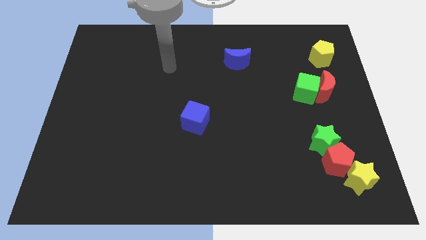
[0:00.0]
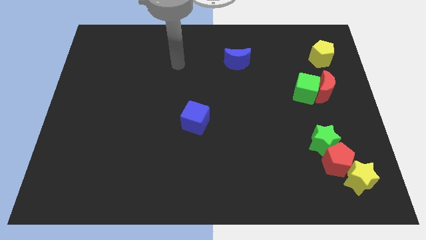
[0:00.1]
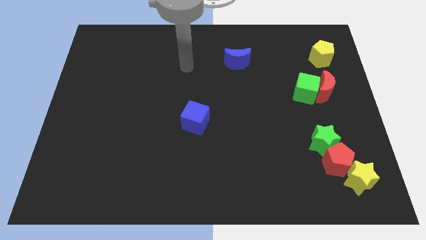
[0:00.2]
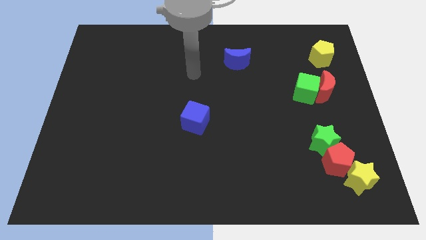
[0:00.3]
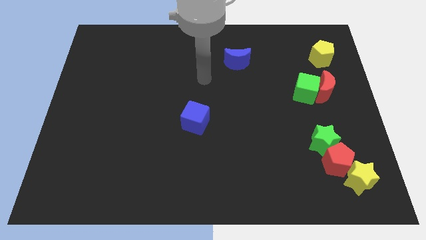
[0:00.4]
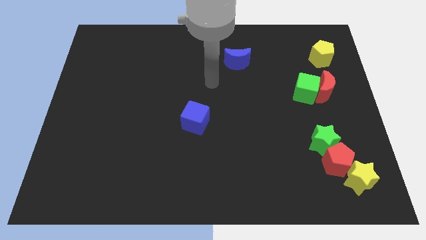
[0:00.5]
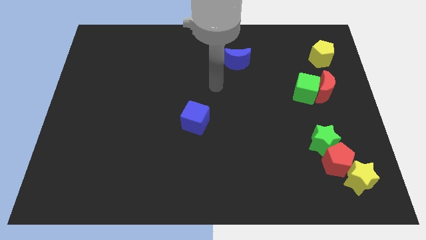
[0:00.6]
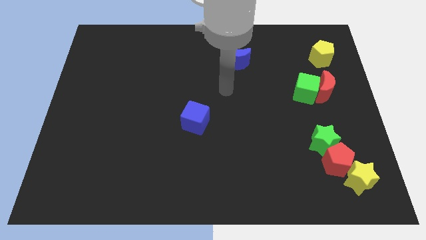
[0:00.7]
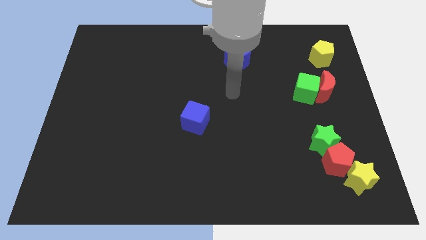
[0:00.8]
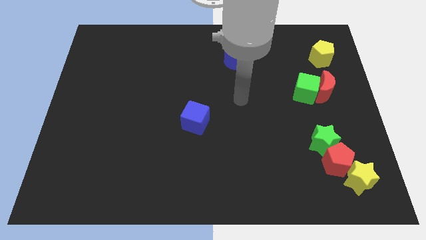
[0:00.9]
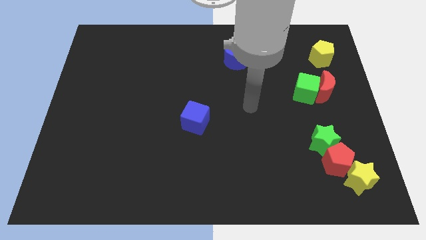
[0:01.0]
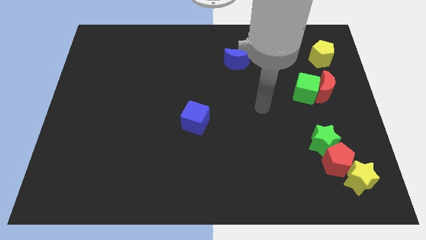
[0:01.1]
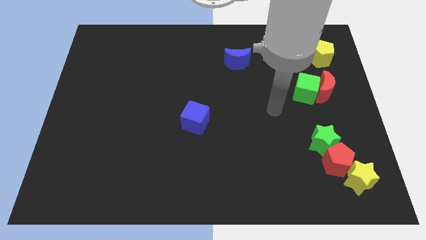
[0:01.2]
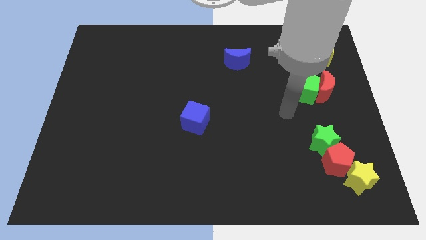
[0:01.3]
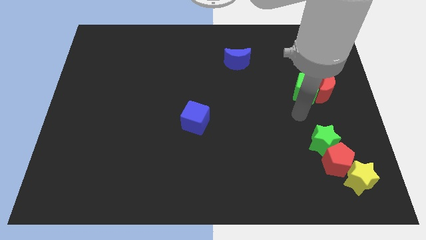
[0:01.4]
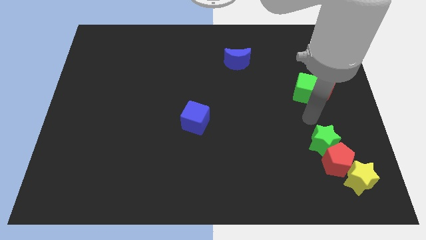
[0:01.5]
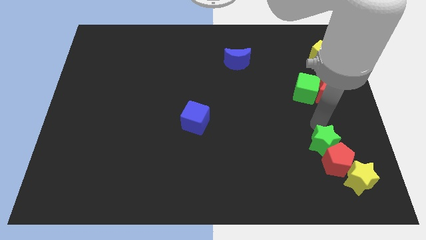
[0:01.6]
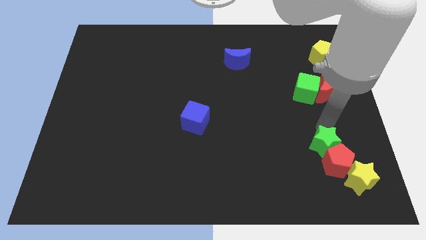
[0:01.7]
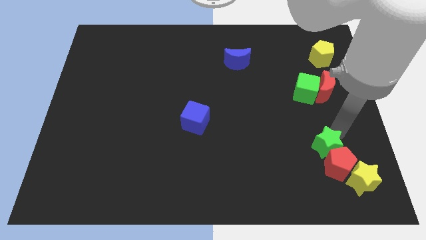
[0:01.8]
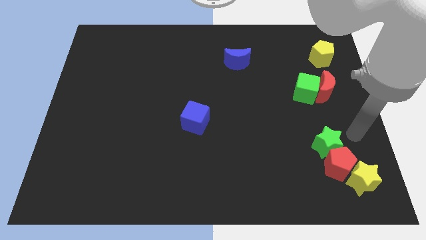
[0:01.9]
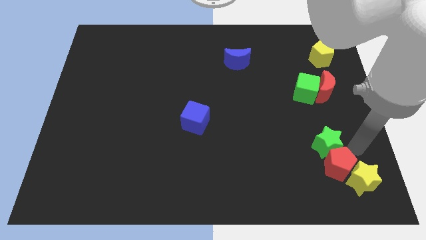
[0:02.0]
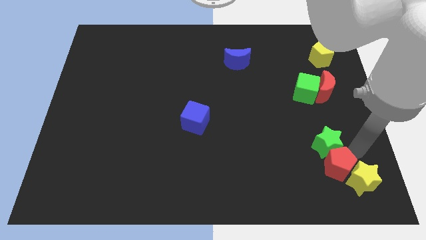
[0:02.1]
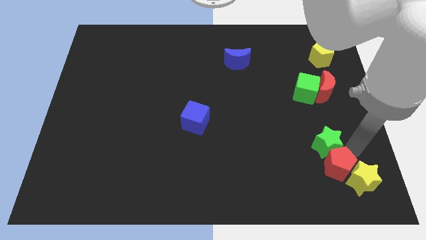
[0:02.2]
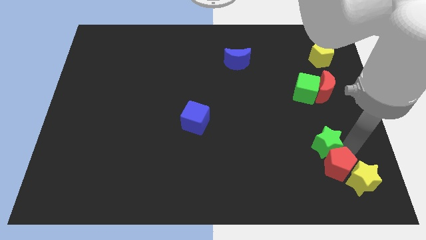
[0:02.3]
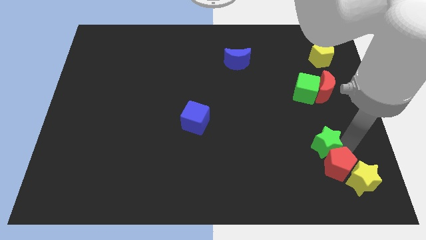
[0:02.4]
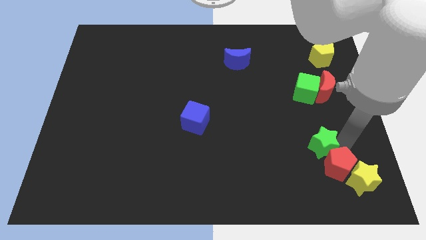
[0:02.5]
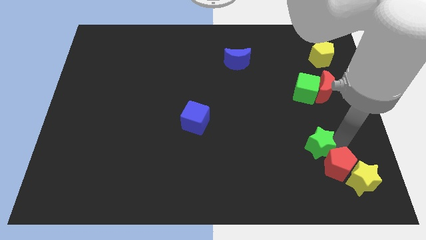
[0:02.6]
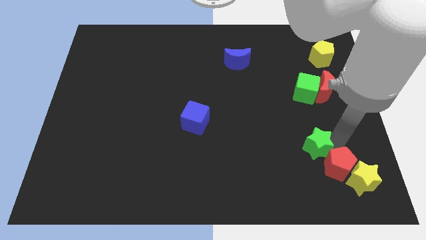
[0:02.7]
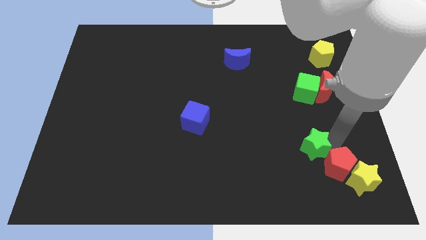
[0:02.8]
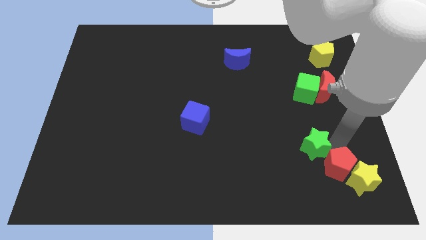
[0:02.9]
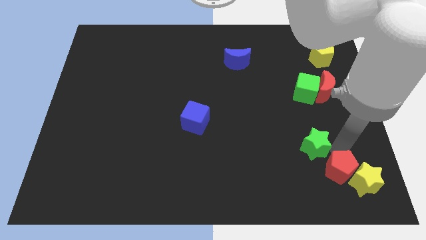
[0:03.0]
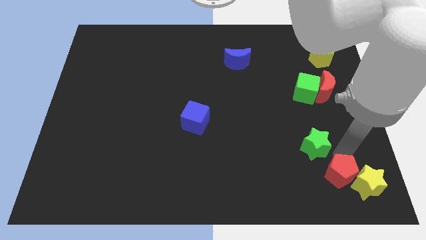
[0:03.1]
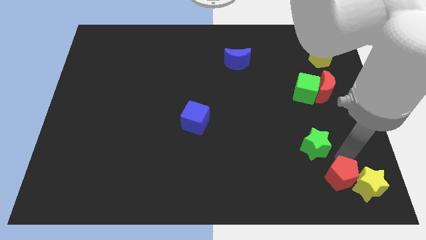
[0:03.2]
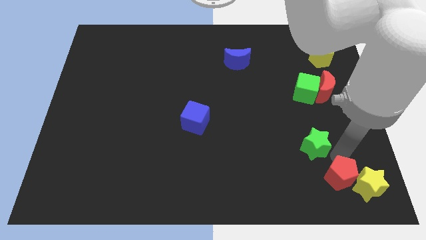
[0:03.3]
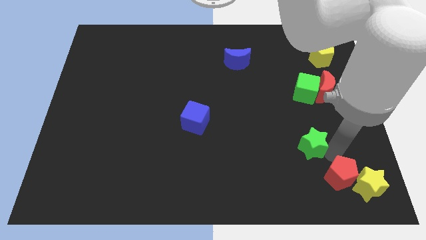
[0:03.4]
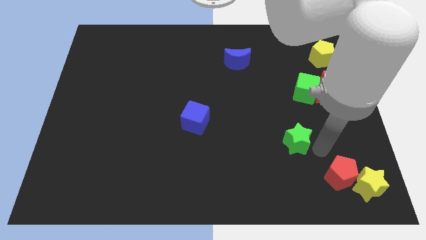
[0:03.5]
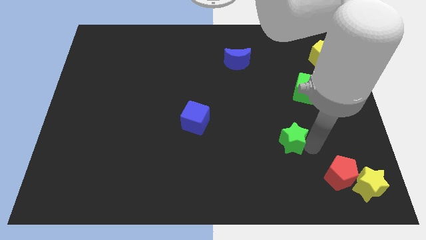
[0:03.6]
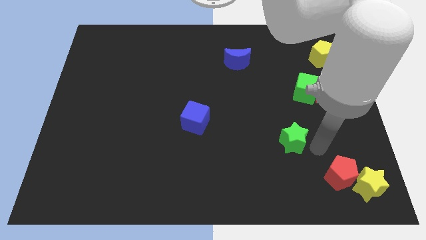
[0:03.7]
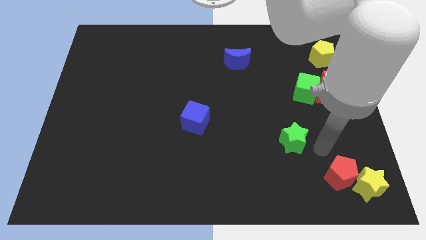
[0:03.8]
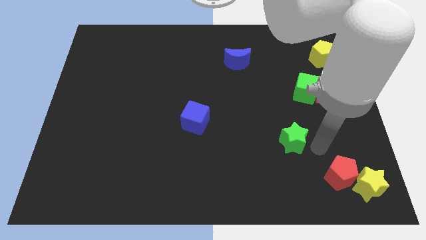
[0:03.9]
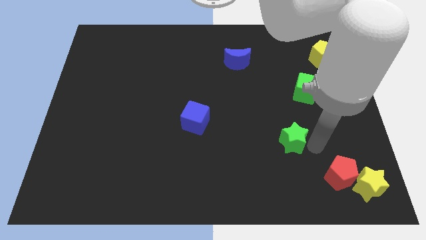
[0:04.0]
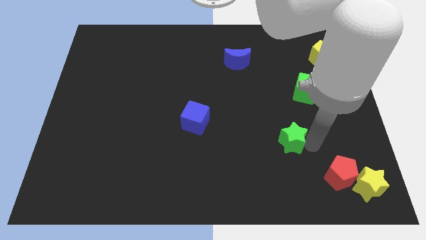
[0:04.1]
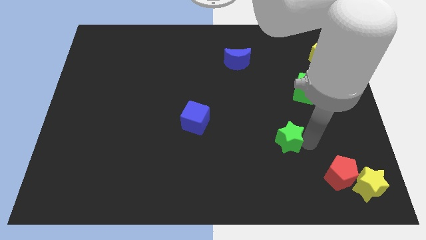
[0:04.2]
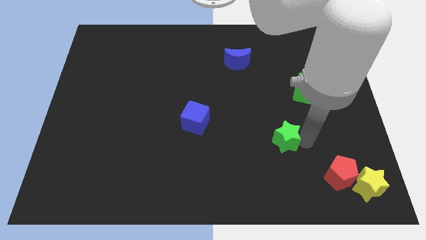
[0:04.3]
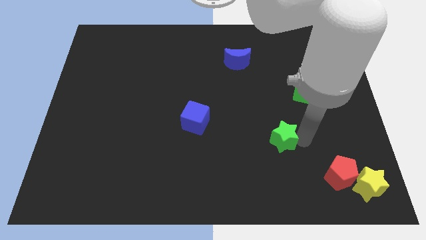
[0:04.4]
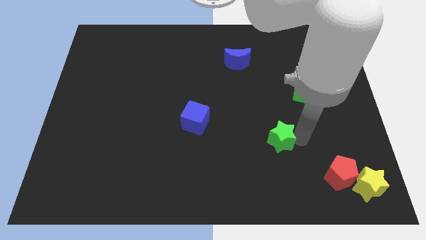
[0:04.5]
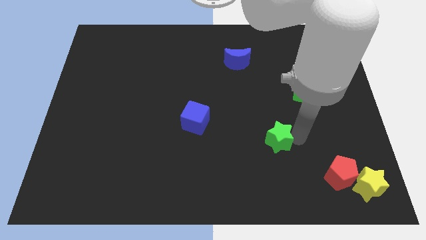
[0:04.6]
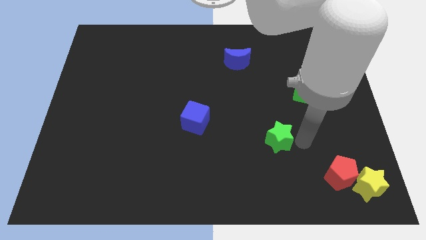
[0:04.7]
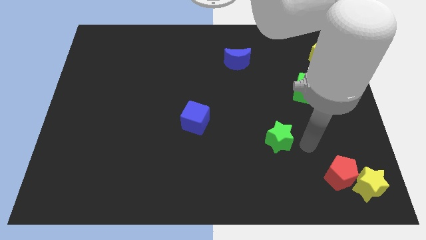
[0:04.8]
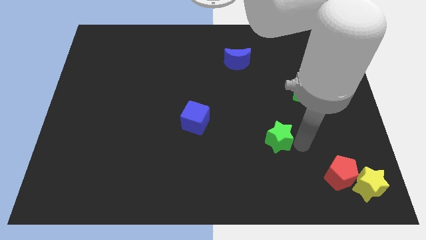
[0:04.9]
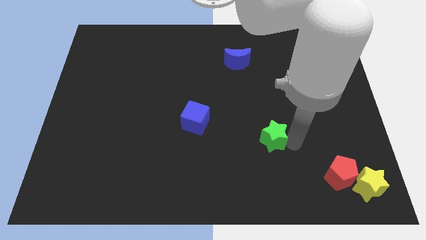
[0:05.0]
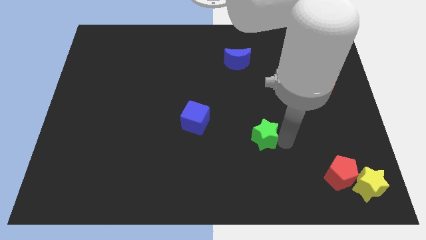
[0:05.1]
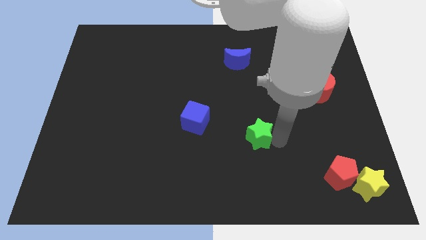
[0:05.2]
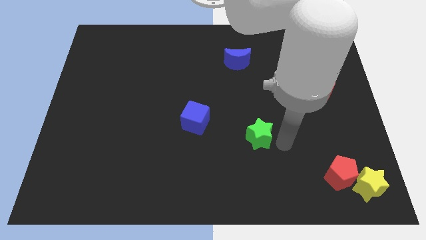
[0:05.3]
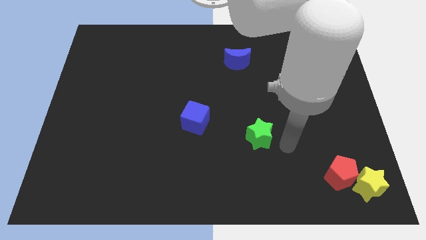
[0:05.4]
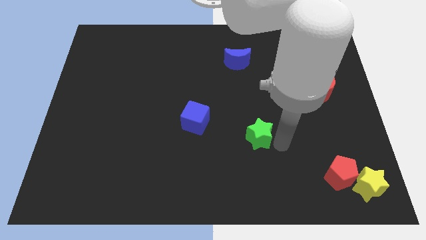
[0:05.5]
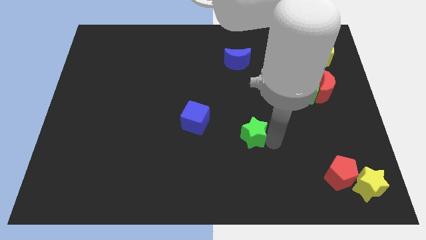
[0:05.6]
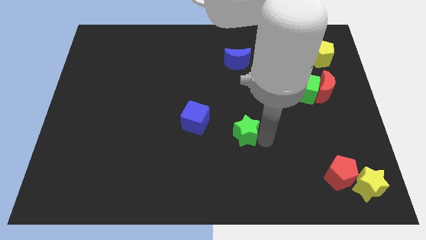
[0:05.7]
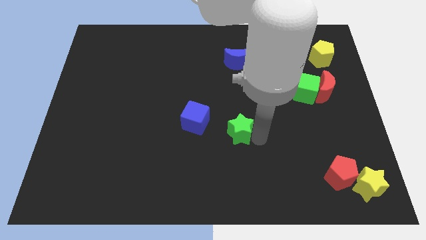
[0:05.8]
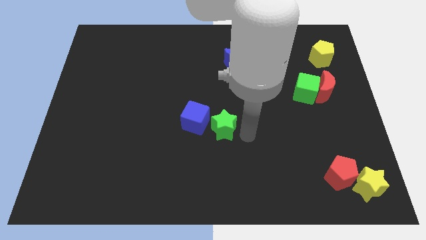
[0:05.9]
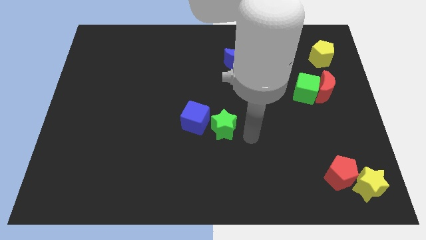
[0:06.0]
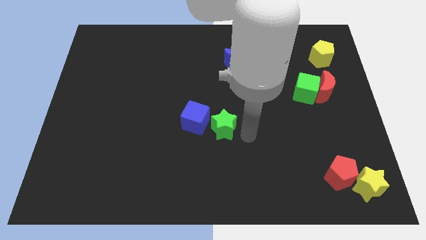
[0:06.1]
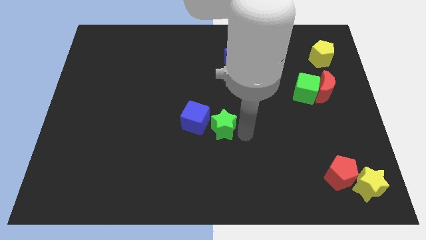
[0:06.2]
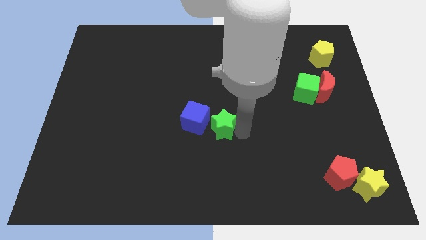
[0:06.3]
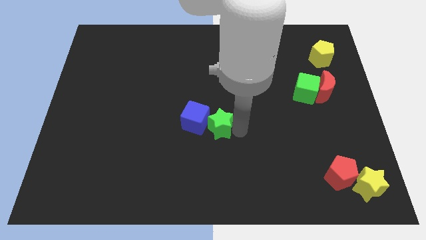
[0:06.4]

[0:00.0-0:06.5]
put the green star towards the blue cube

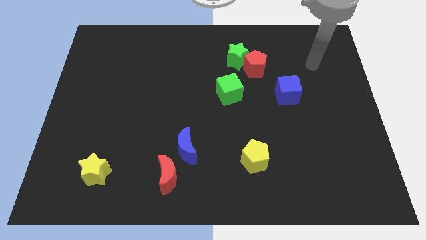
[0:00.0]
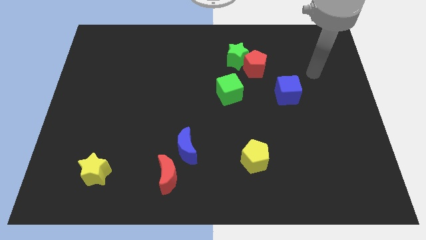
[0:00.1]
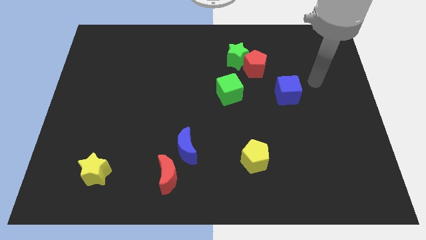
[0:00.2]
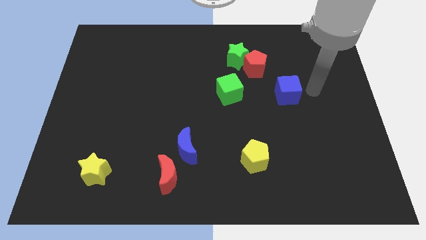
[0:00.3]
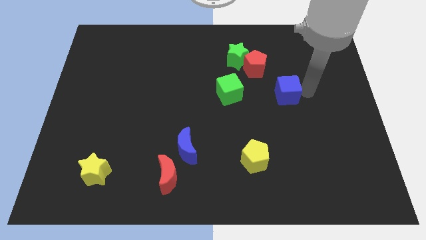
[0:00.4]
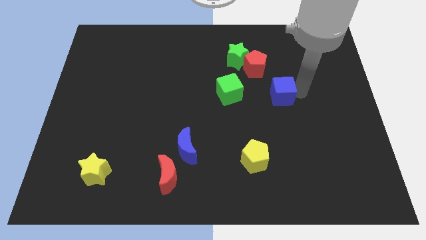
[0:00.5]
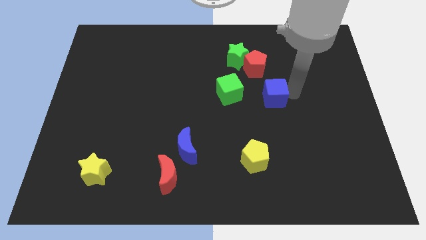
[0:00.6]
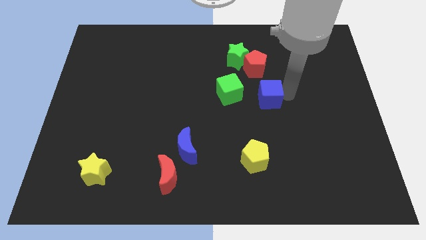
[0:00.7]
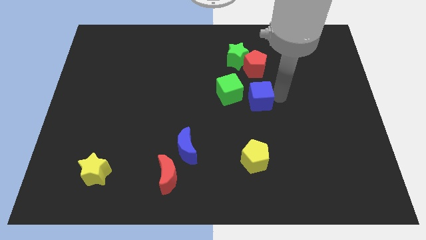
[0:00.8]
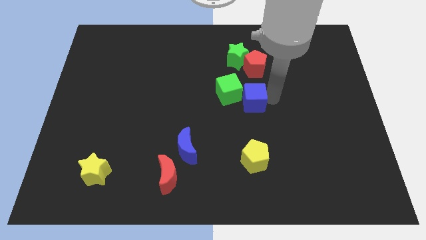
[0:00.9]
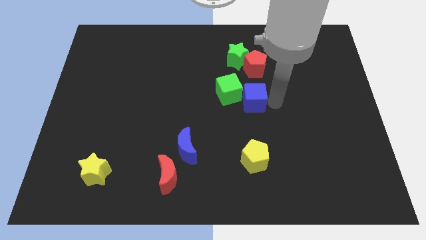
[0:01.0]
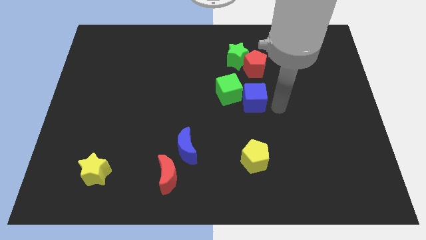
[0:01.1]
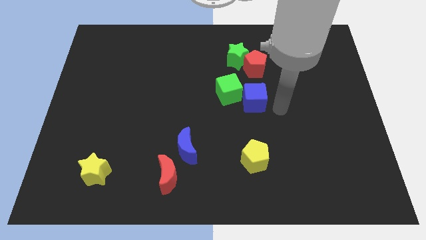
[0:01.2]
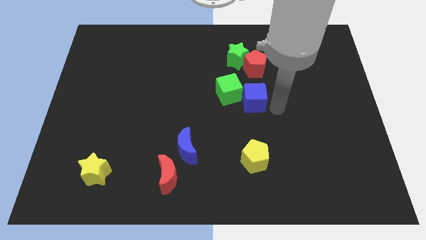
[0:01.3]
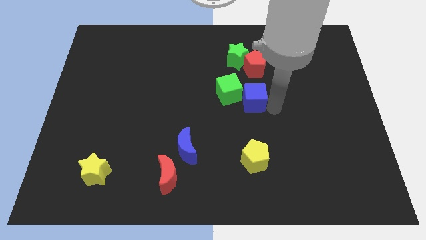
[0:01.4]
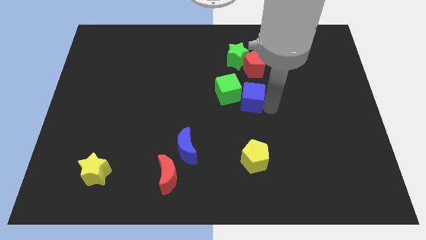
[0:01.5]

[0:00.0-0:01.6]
slide the blue cube towards the green cube
